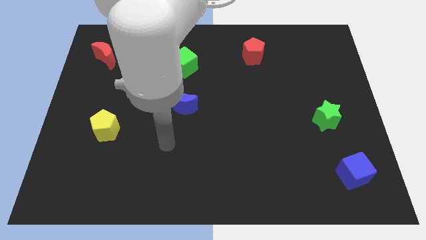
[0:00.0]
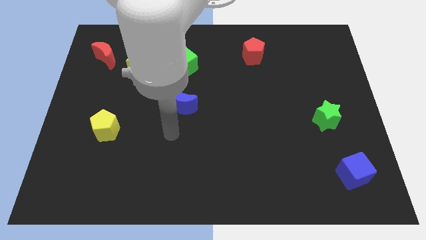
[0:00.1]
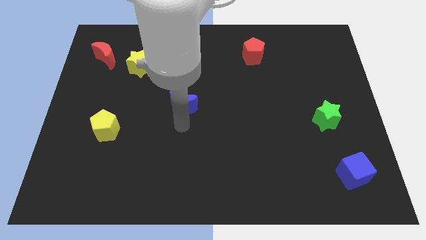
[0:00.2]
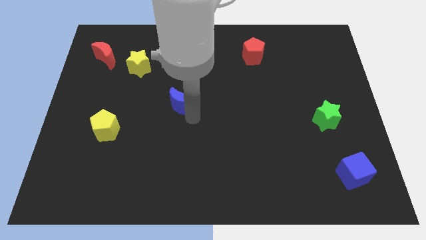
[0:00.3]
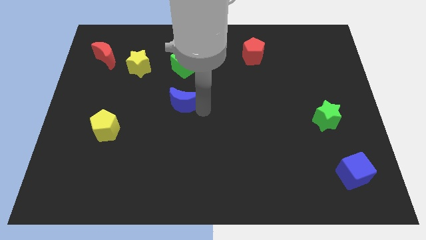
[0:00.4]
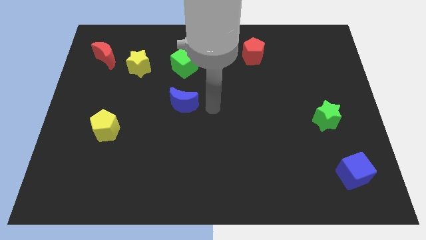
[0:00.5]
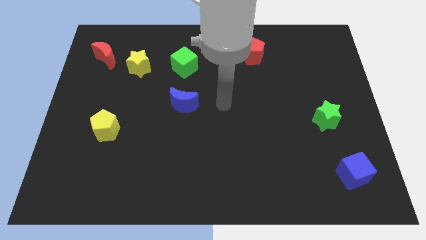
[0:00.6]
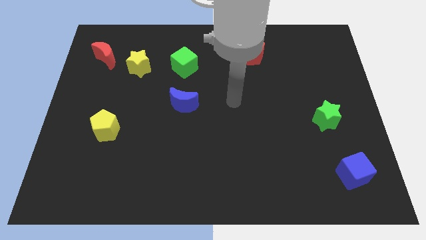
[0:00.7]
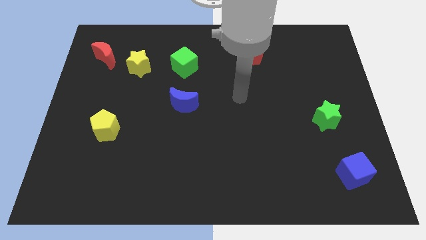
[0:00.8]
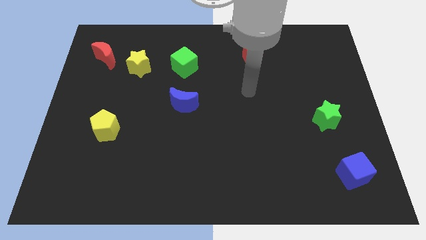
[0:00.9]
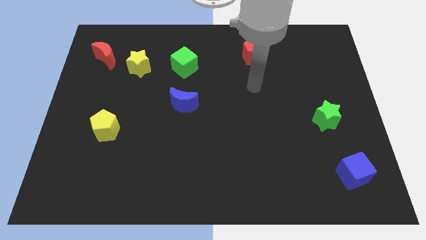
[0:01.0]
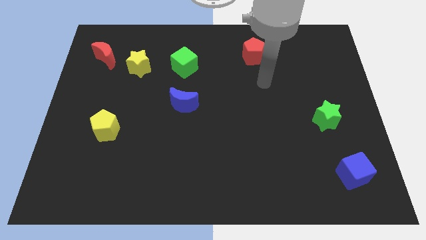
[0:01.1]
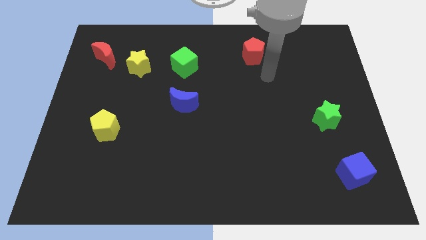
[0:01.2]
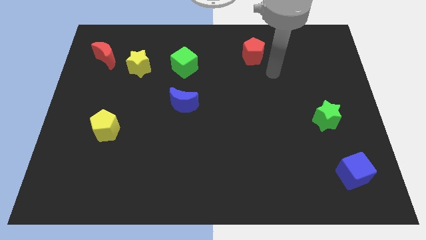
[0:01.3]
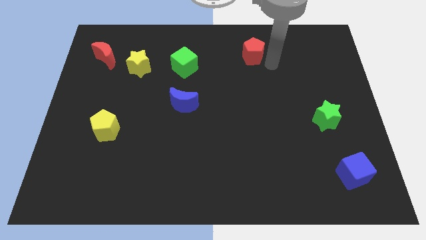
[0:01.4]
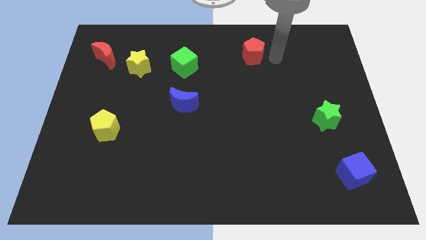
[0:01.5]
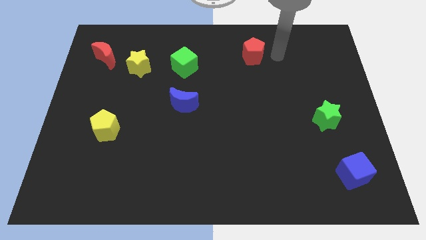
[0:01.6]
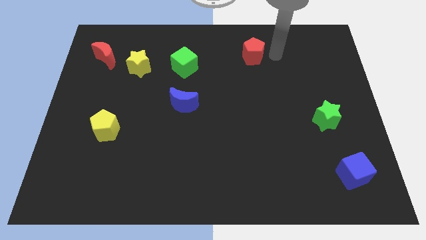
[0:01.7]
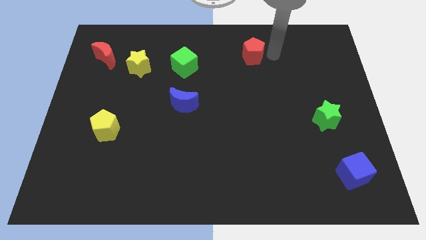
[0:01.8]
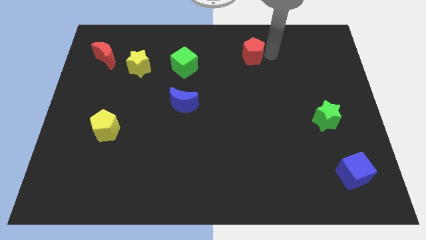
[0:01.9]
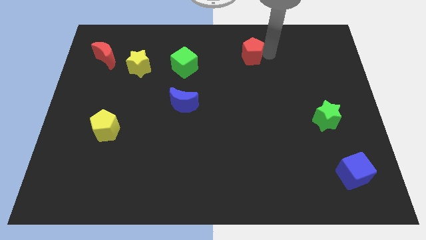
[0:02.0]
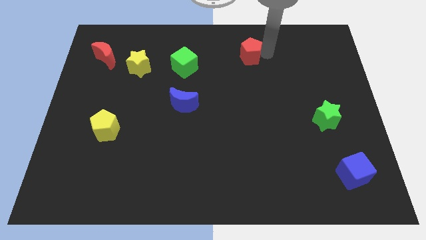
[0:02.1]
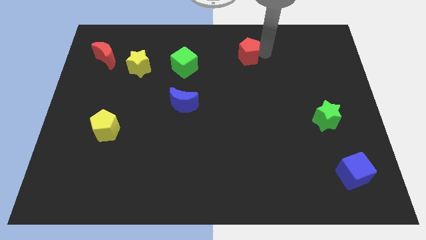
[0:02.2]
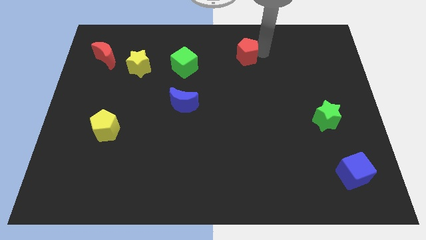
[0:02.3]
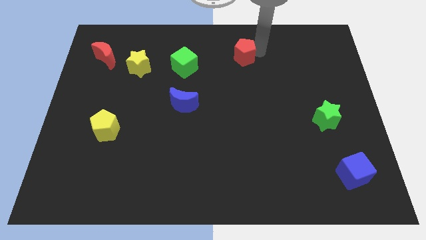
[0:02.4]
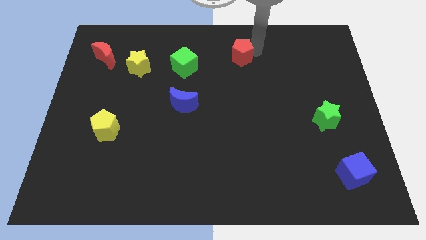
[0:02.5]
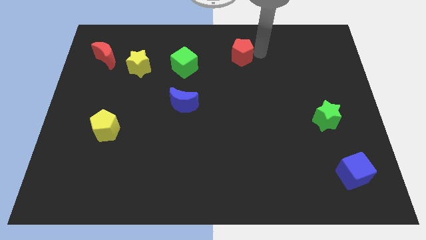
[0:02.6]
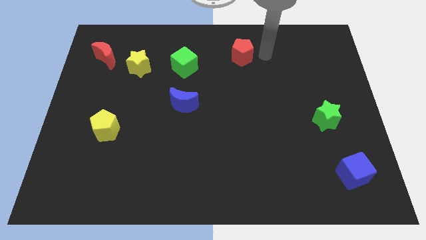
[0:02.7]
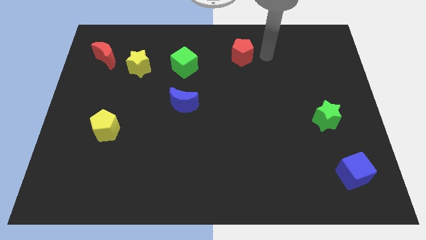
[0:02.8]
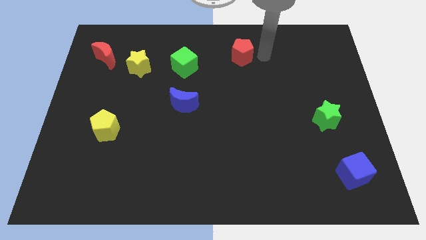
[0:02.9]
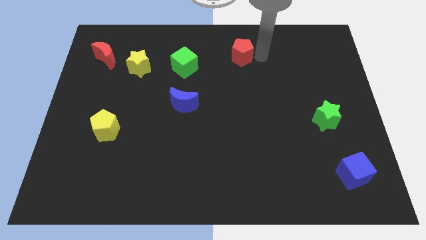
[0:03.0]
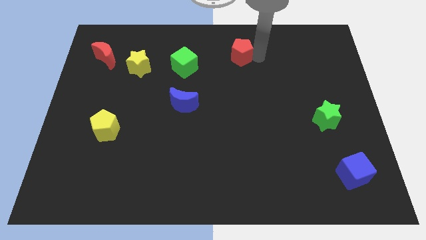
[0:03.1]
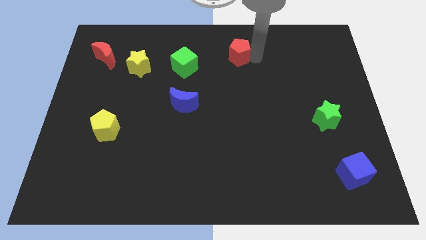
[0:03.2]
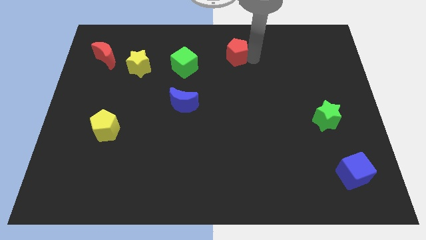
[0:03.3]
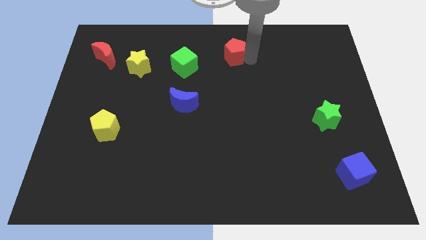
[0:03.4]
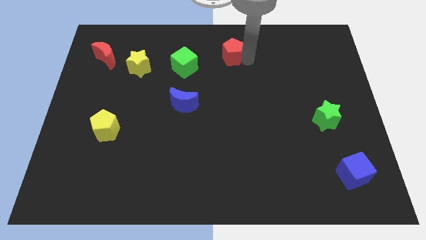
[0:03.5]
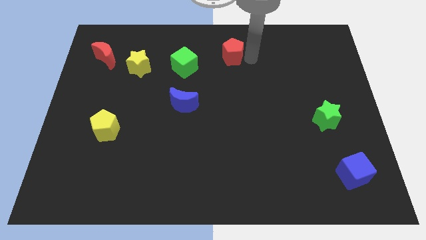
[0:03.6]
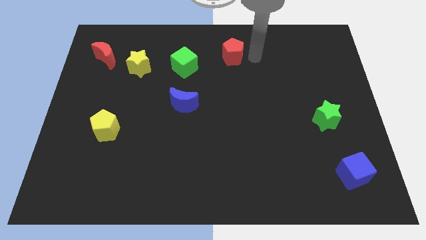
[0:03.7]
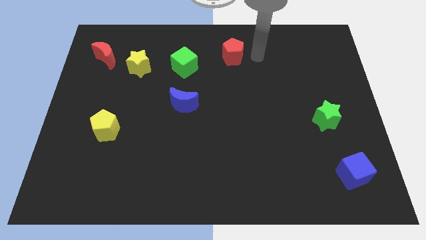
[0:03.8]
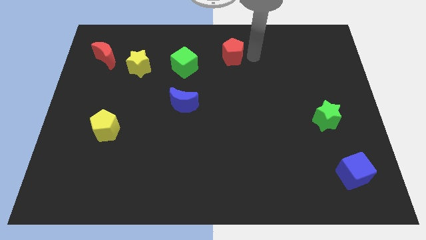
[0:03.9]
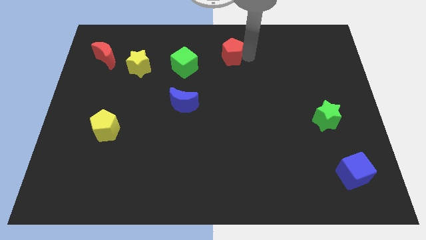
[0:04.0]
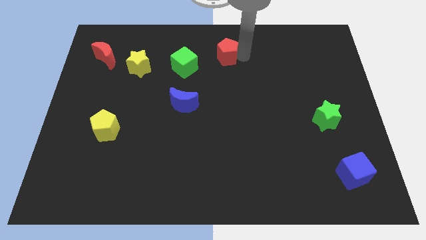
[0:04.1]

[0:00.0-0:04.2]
push the red pentagon a little to the left

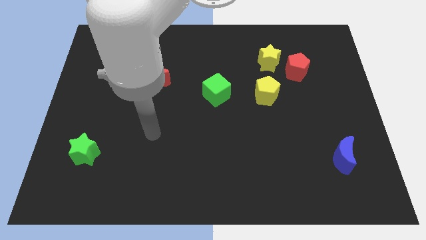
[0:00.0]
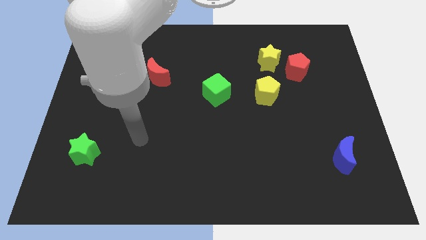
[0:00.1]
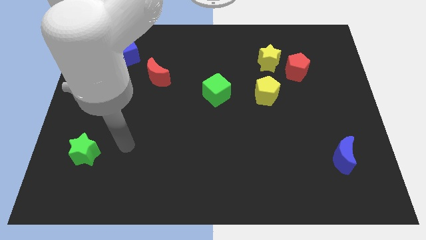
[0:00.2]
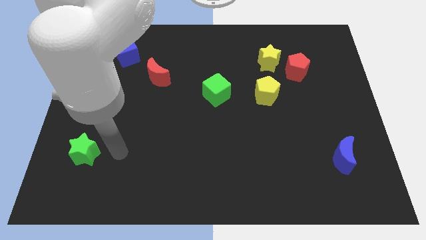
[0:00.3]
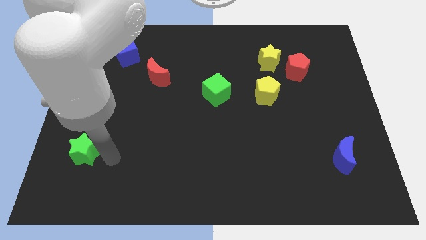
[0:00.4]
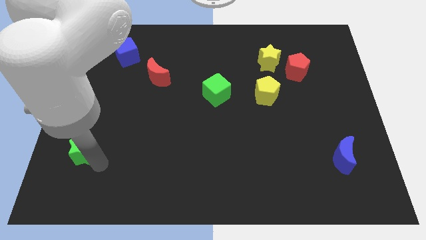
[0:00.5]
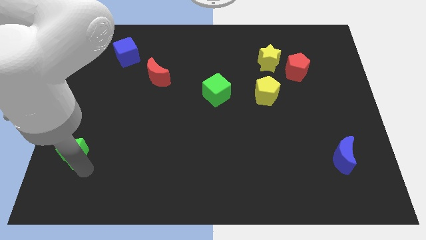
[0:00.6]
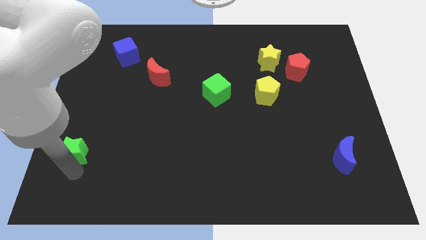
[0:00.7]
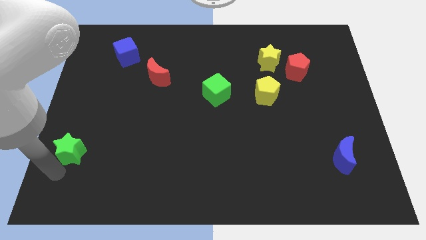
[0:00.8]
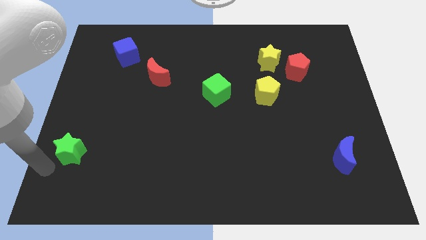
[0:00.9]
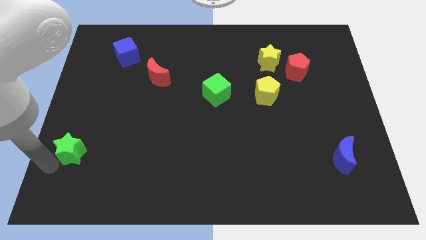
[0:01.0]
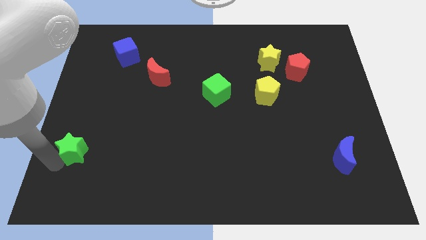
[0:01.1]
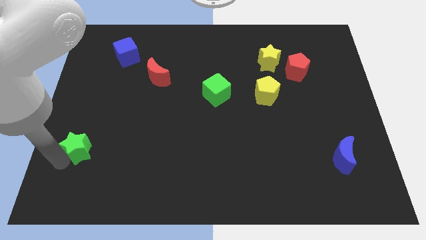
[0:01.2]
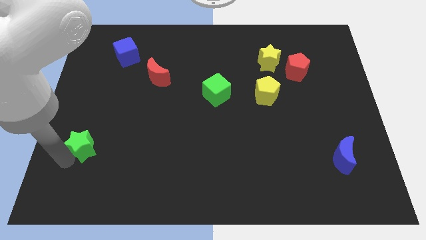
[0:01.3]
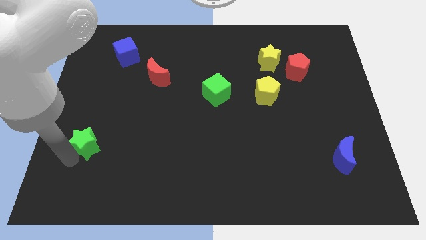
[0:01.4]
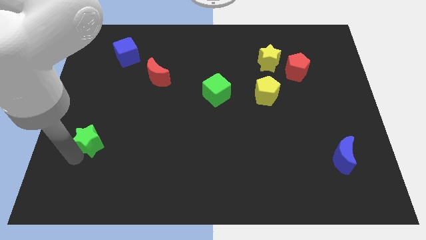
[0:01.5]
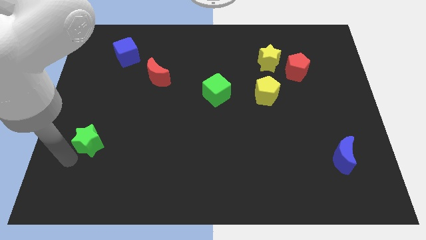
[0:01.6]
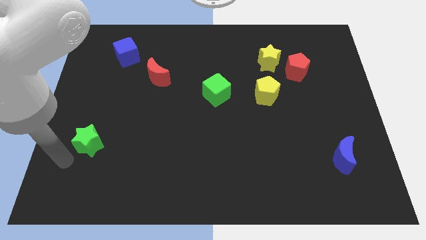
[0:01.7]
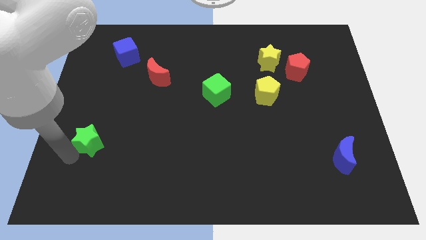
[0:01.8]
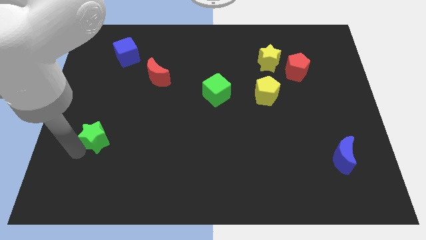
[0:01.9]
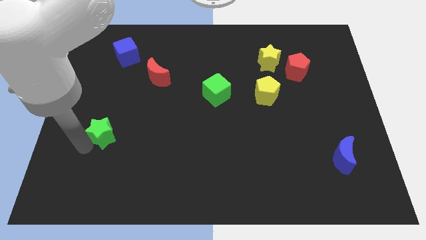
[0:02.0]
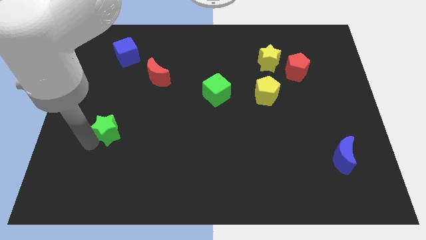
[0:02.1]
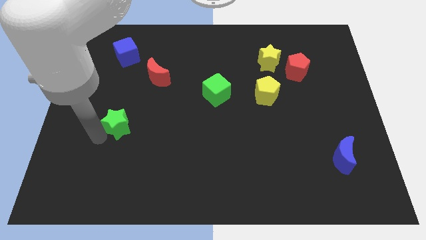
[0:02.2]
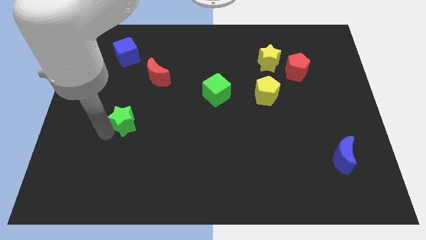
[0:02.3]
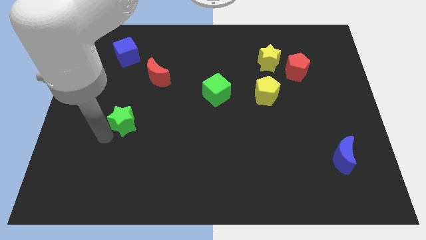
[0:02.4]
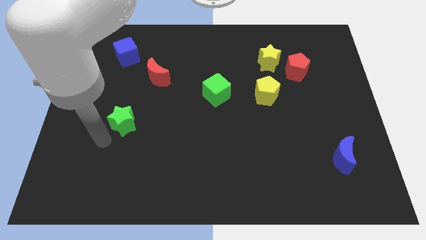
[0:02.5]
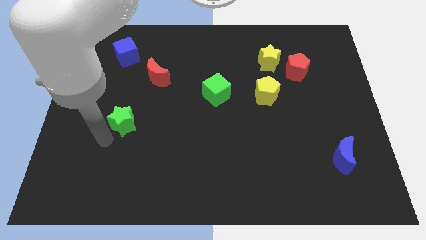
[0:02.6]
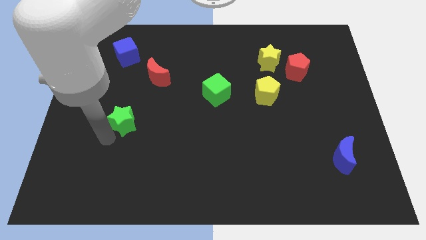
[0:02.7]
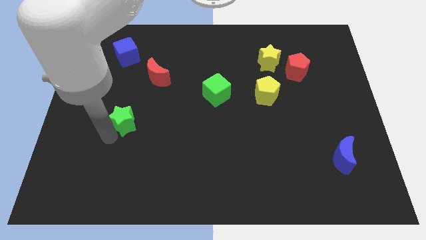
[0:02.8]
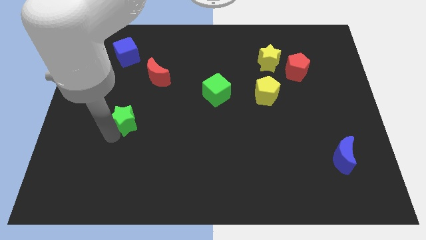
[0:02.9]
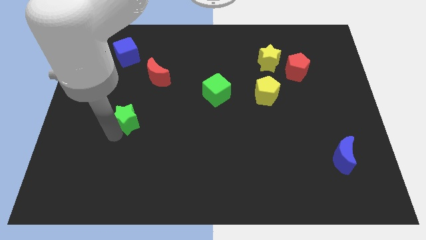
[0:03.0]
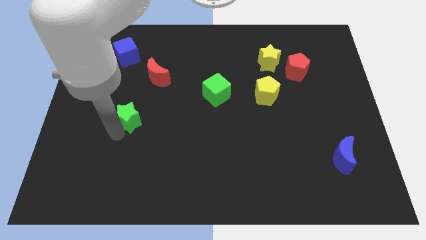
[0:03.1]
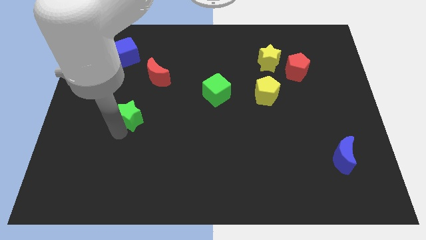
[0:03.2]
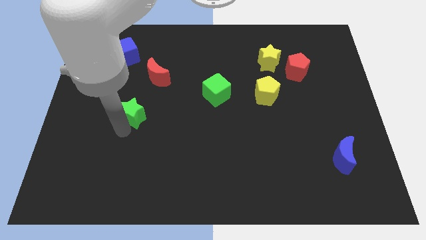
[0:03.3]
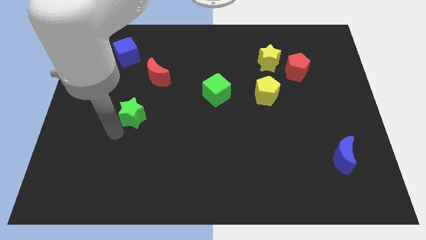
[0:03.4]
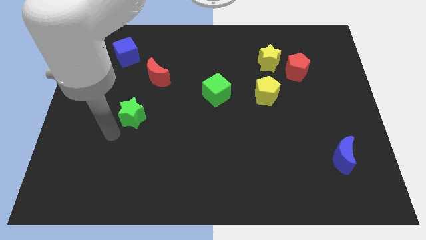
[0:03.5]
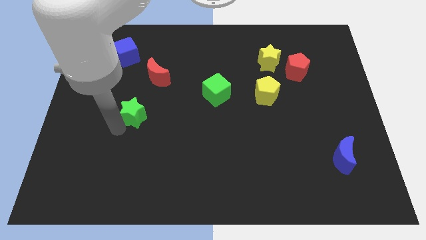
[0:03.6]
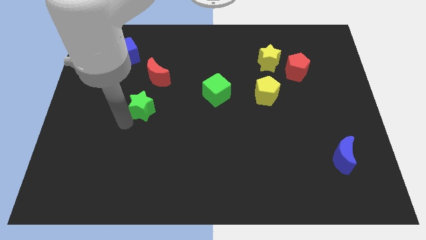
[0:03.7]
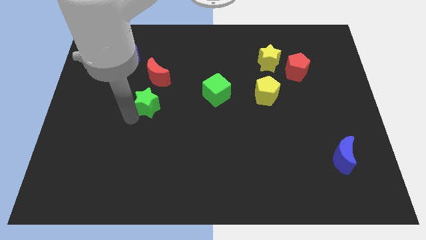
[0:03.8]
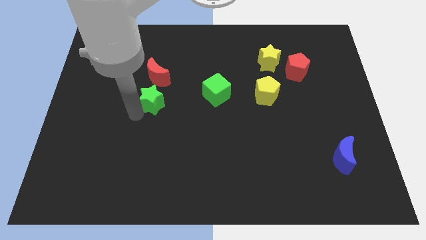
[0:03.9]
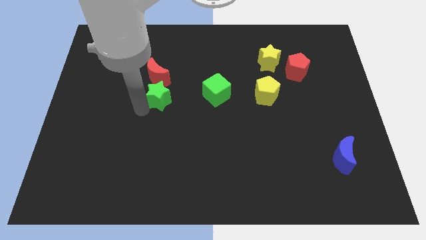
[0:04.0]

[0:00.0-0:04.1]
slide the green star up and then to the right
